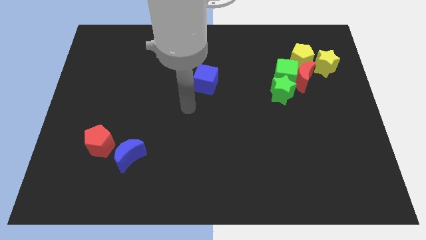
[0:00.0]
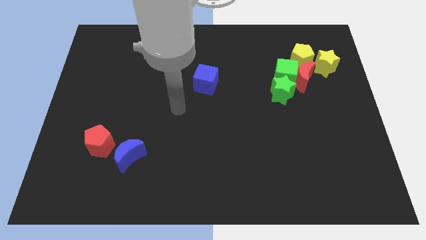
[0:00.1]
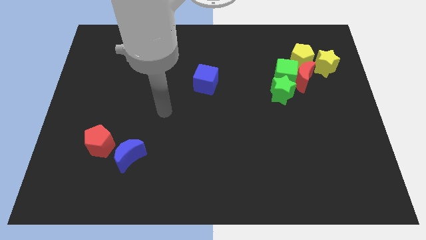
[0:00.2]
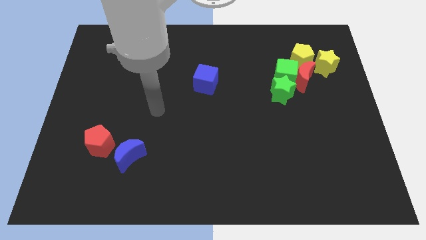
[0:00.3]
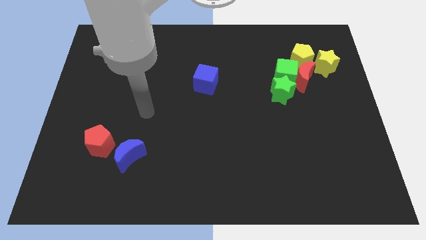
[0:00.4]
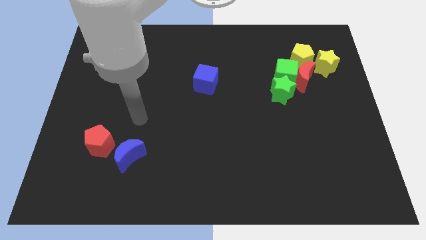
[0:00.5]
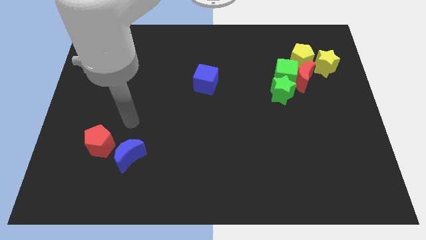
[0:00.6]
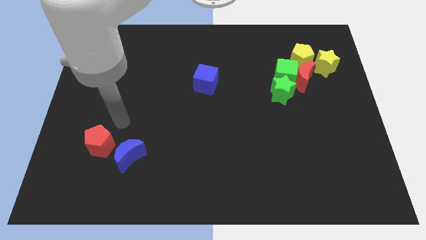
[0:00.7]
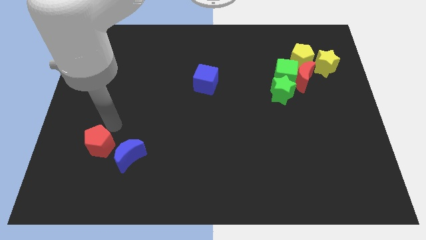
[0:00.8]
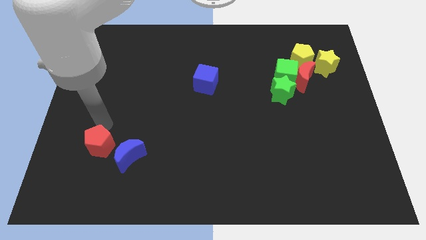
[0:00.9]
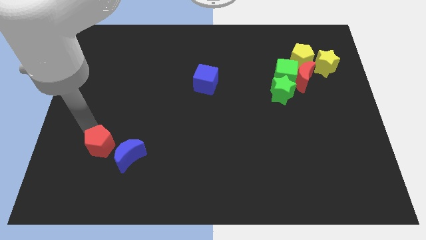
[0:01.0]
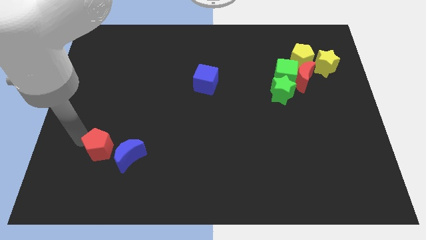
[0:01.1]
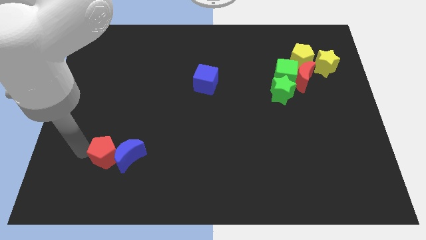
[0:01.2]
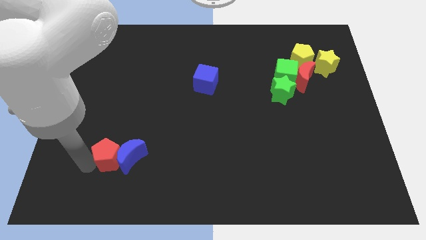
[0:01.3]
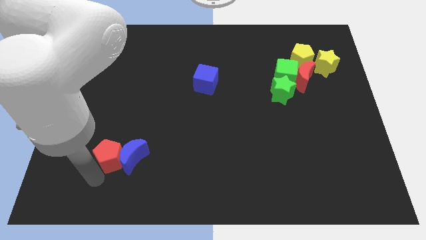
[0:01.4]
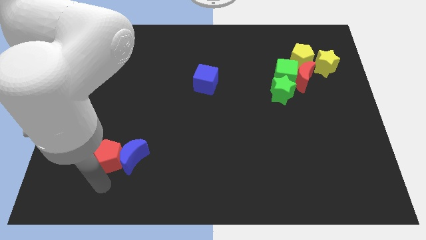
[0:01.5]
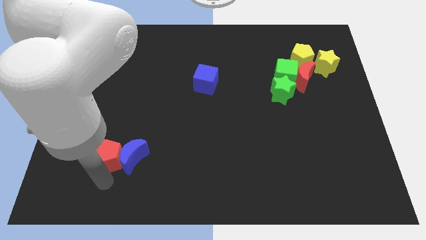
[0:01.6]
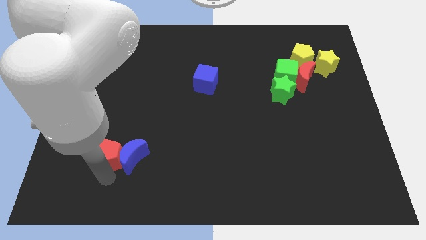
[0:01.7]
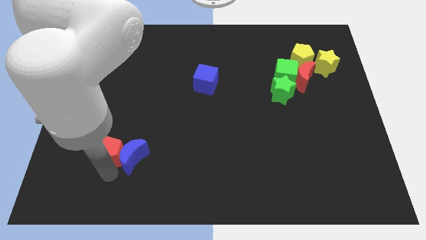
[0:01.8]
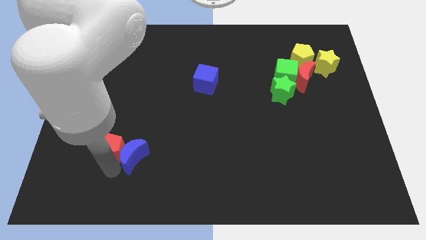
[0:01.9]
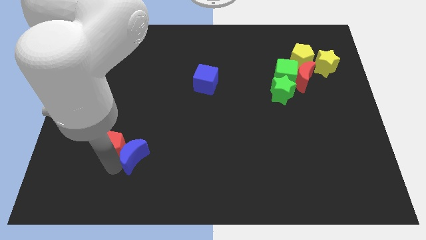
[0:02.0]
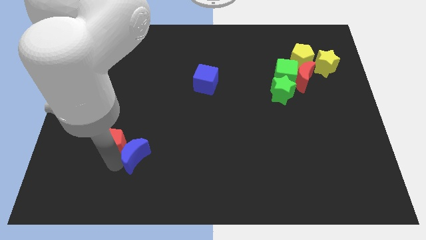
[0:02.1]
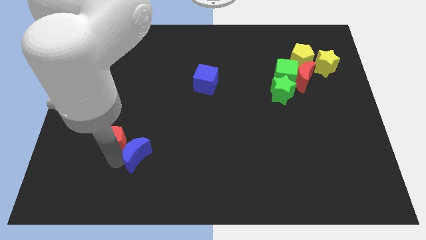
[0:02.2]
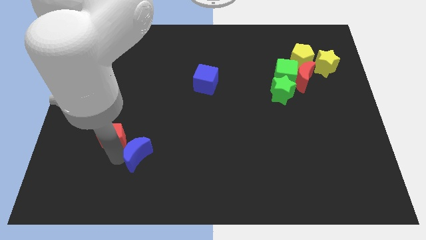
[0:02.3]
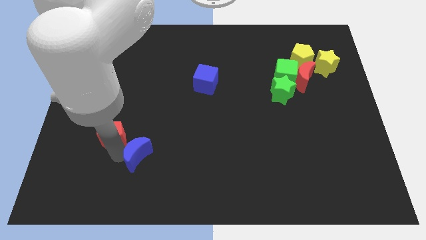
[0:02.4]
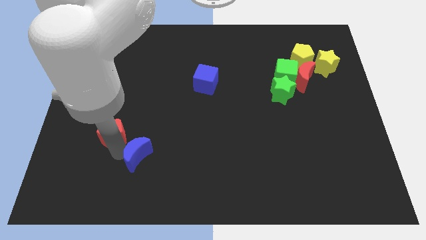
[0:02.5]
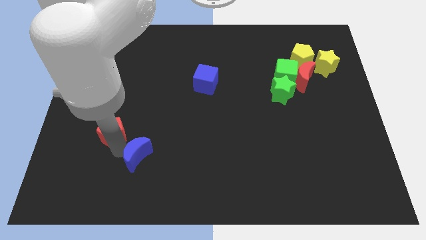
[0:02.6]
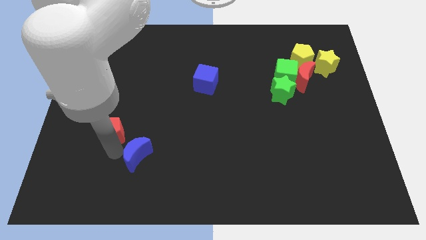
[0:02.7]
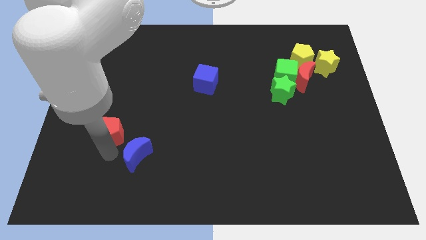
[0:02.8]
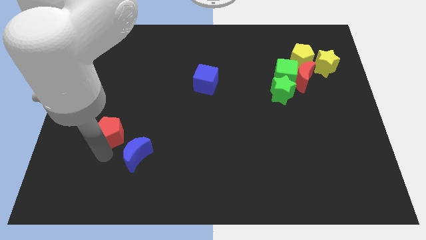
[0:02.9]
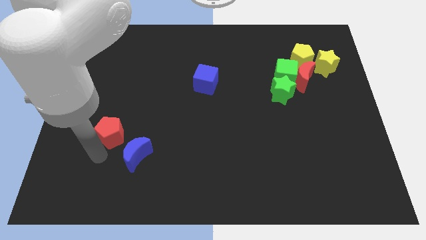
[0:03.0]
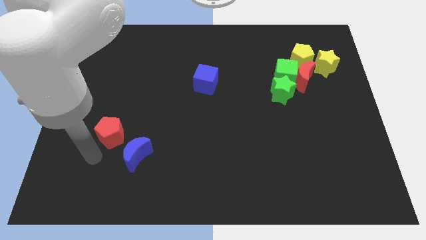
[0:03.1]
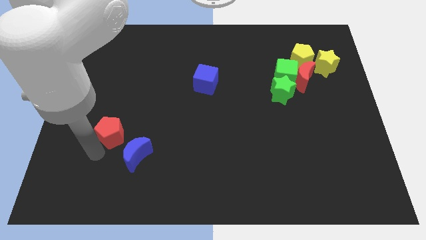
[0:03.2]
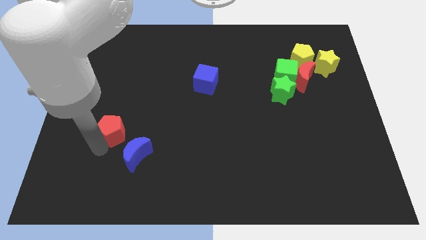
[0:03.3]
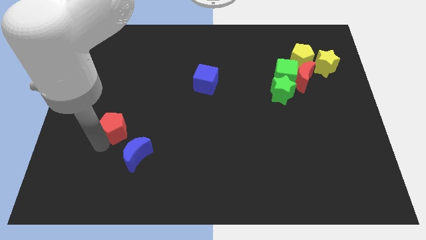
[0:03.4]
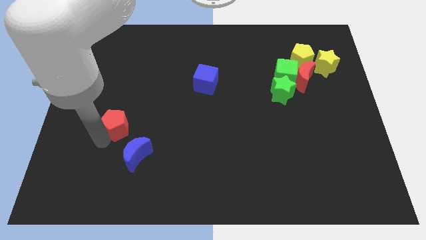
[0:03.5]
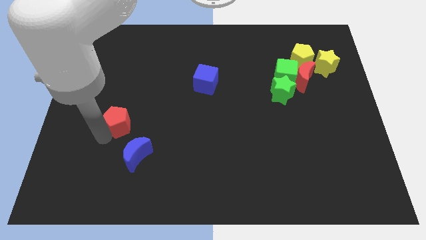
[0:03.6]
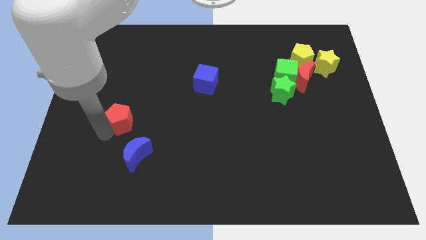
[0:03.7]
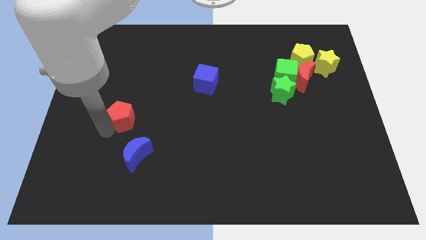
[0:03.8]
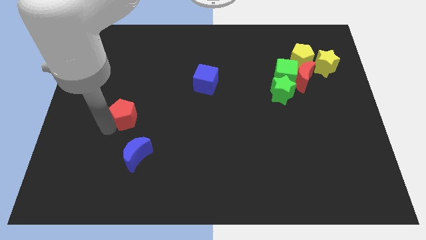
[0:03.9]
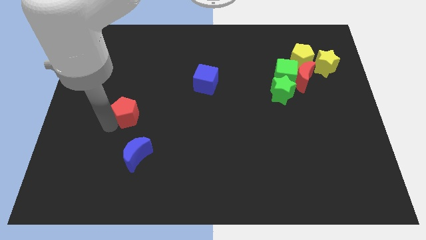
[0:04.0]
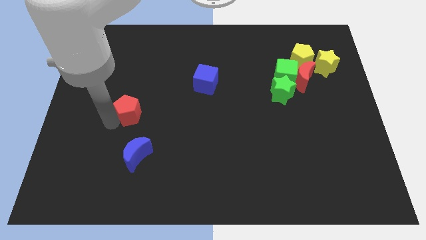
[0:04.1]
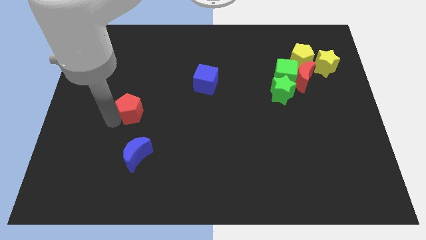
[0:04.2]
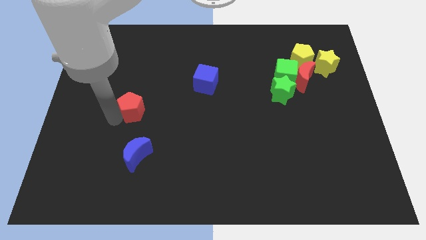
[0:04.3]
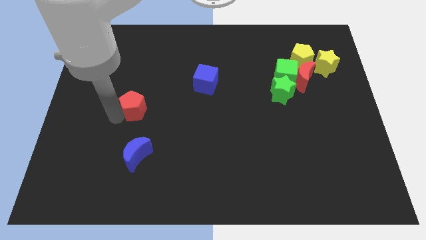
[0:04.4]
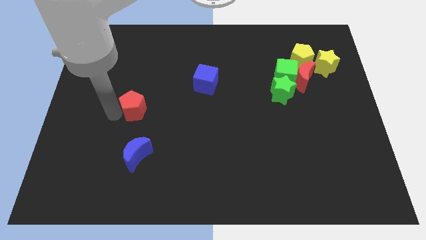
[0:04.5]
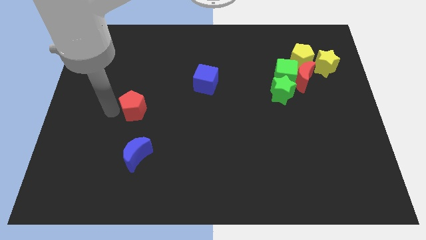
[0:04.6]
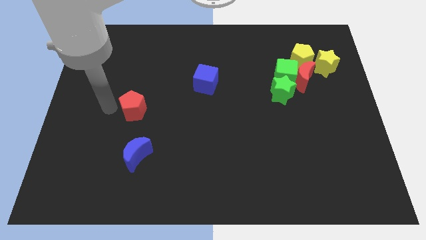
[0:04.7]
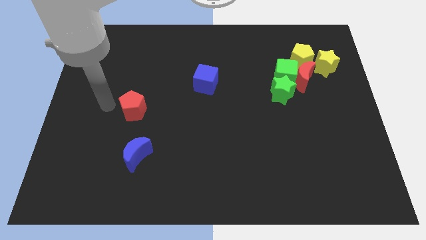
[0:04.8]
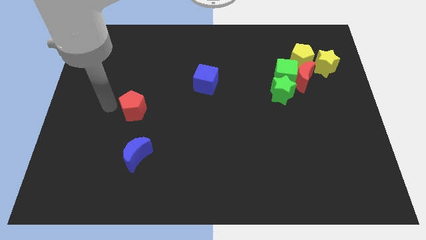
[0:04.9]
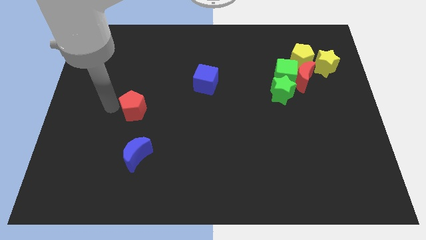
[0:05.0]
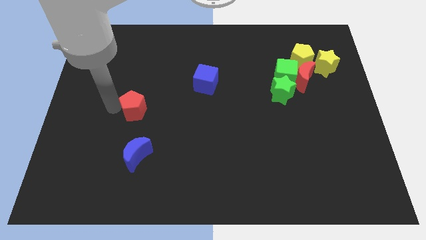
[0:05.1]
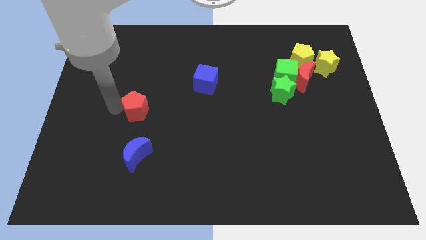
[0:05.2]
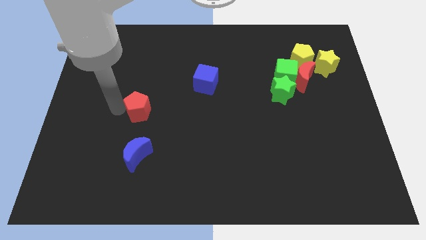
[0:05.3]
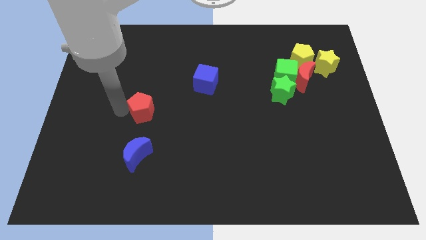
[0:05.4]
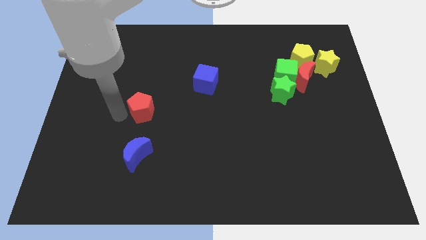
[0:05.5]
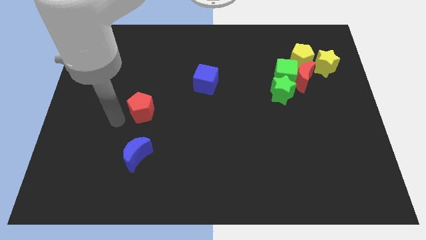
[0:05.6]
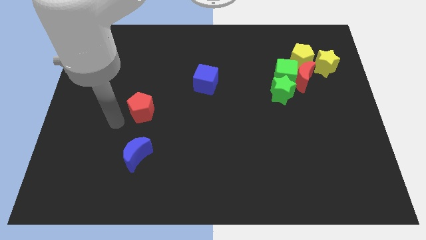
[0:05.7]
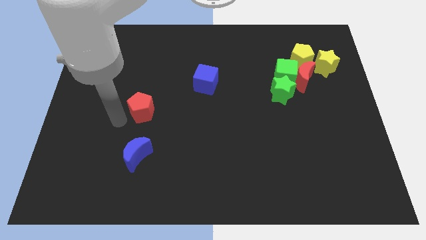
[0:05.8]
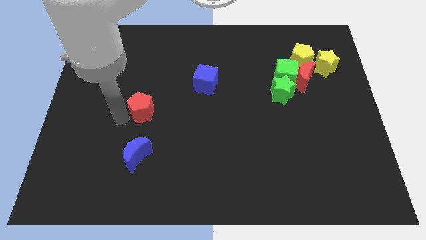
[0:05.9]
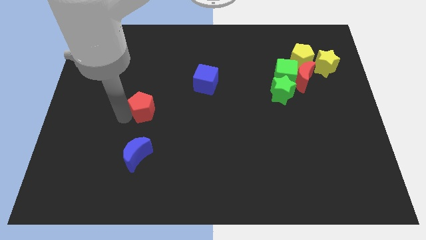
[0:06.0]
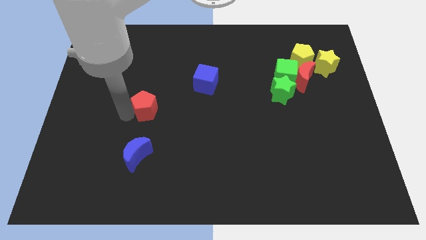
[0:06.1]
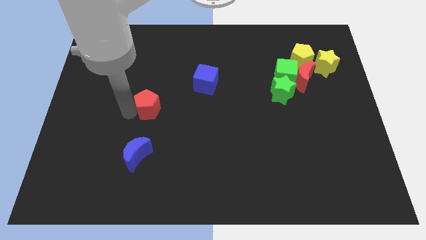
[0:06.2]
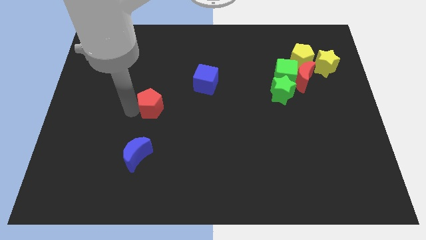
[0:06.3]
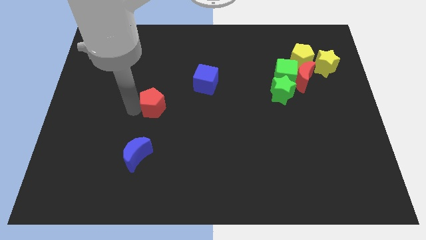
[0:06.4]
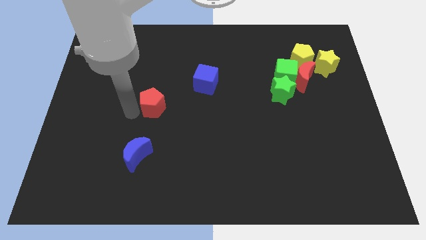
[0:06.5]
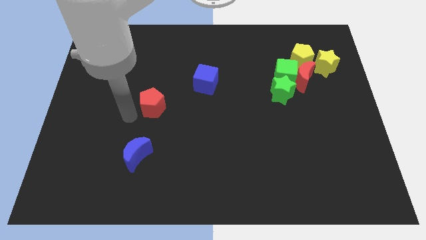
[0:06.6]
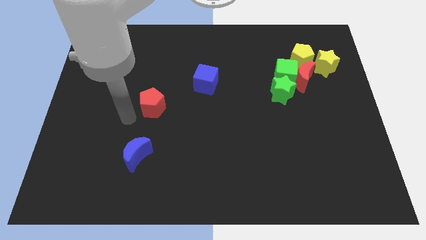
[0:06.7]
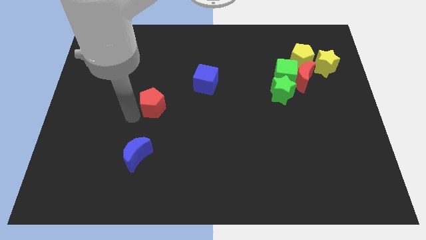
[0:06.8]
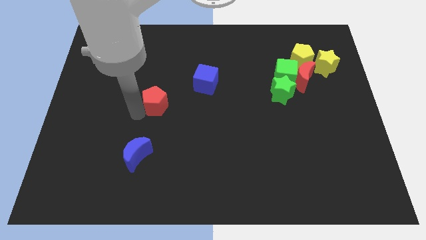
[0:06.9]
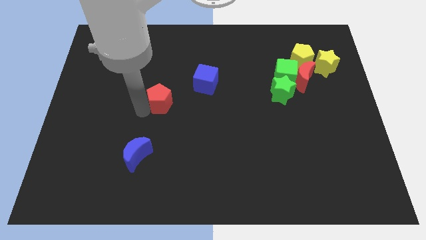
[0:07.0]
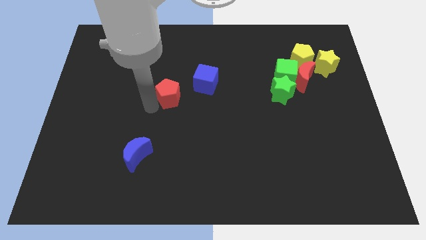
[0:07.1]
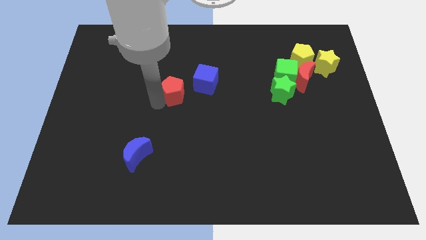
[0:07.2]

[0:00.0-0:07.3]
slide the red pentagon upwards and right

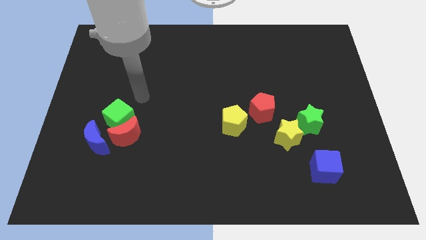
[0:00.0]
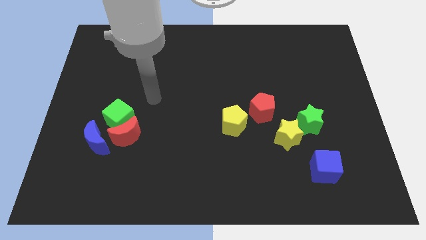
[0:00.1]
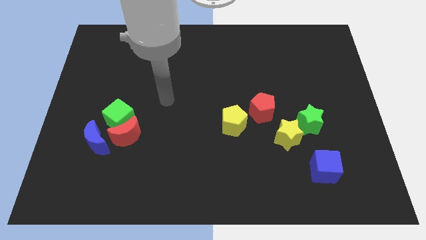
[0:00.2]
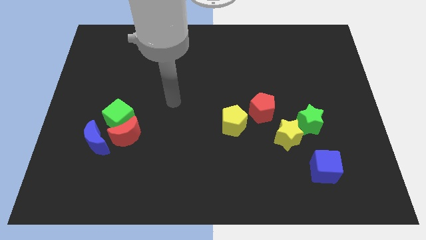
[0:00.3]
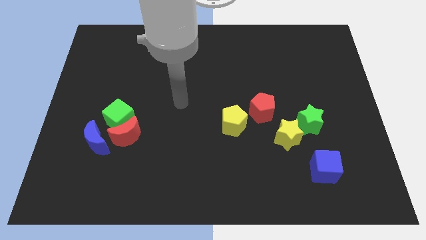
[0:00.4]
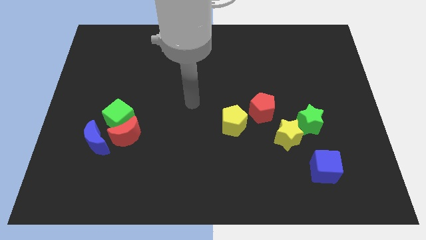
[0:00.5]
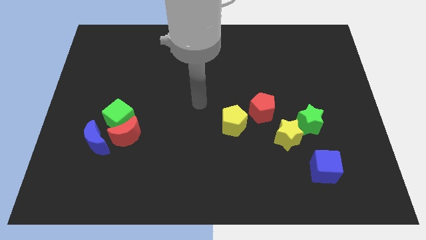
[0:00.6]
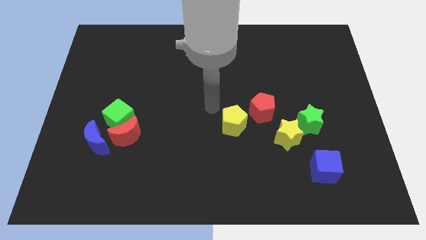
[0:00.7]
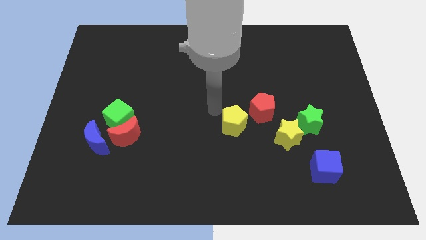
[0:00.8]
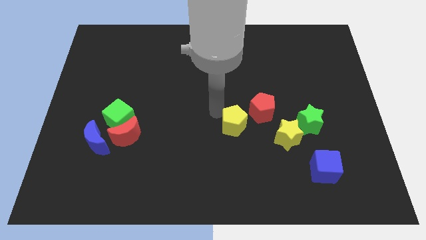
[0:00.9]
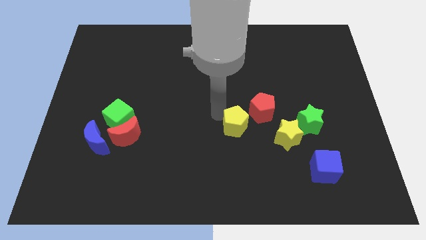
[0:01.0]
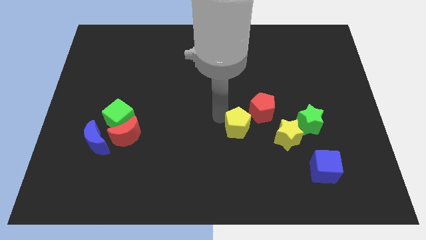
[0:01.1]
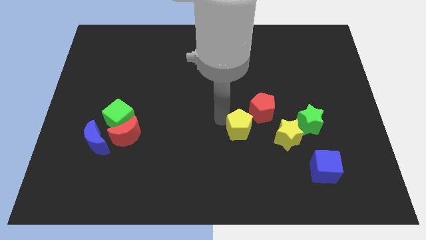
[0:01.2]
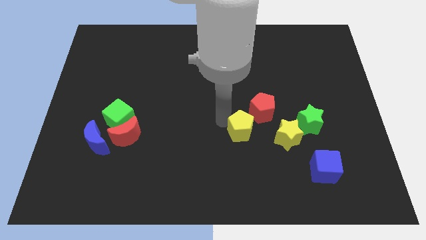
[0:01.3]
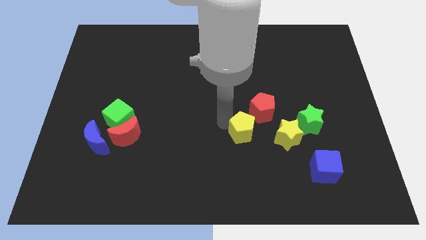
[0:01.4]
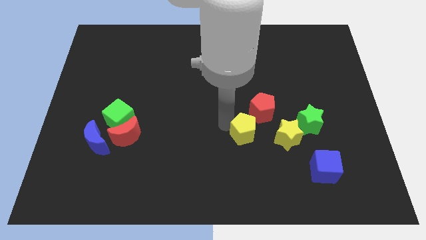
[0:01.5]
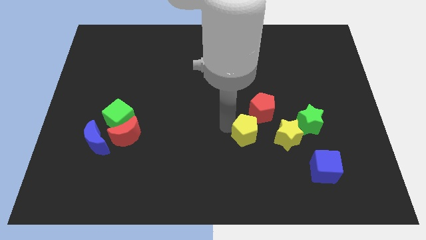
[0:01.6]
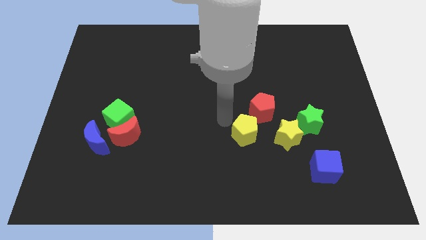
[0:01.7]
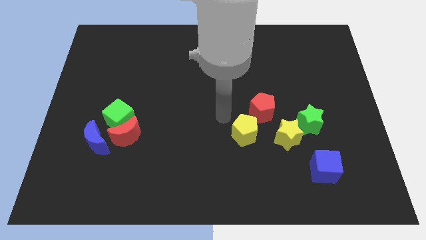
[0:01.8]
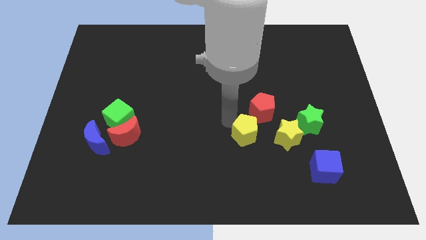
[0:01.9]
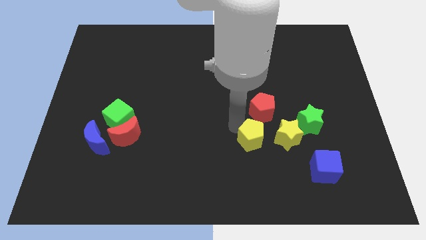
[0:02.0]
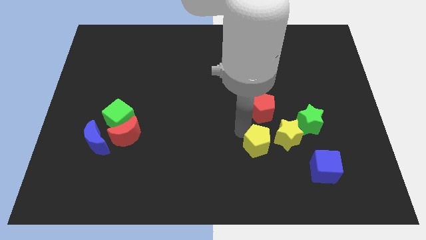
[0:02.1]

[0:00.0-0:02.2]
slightly push the yellow pentagon down and to the right
